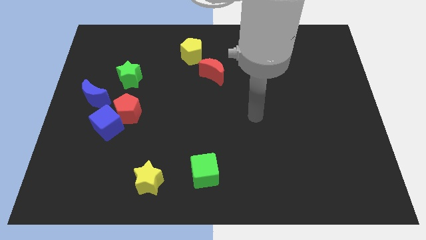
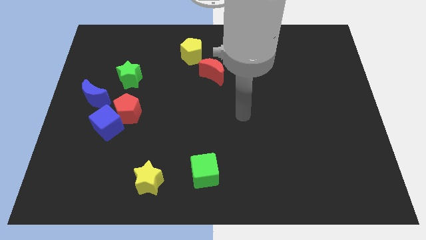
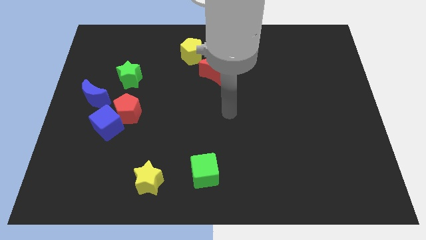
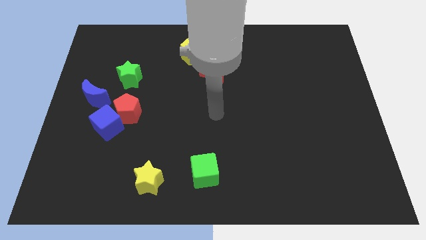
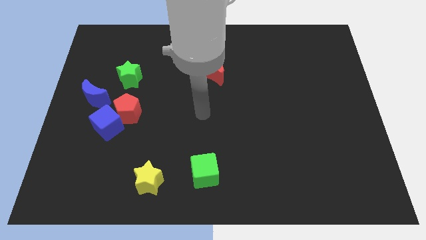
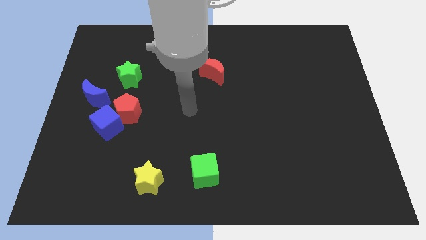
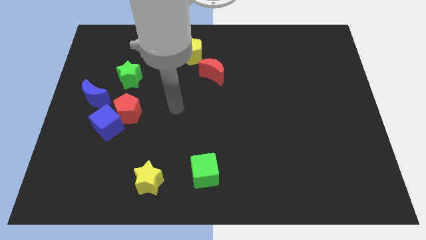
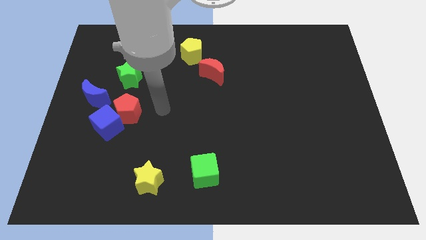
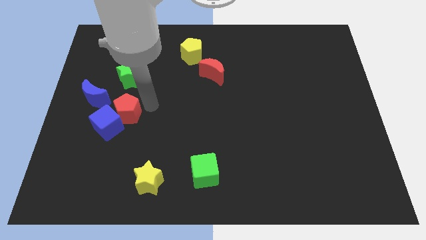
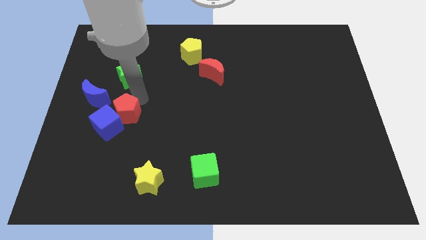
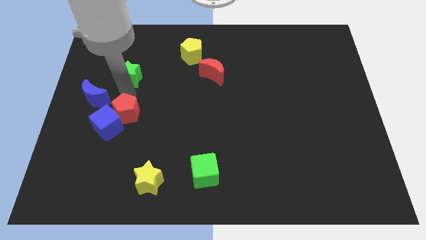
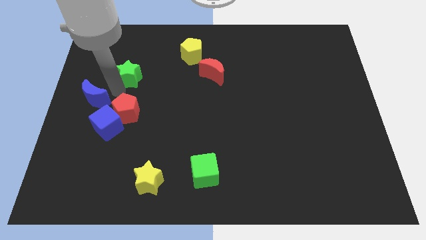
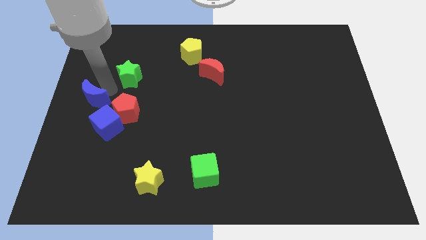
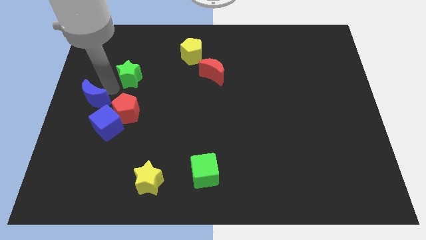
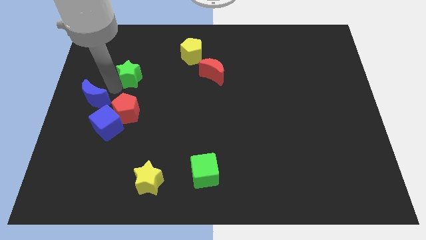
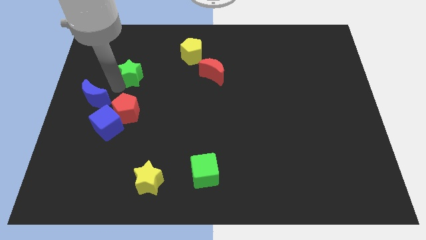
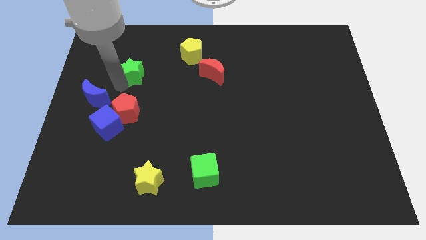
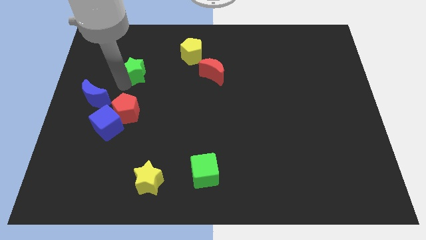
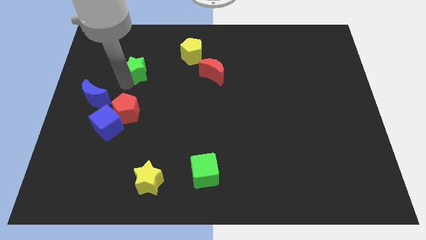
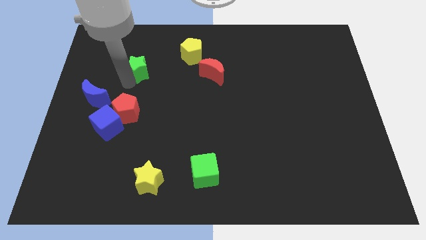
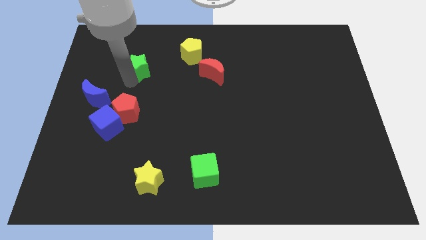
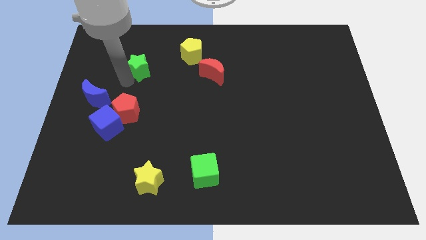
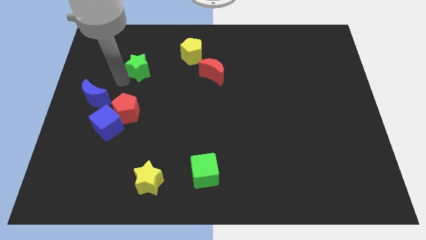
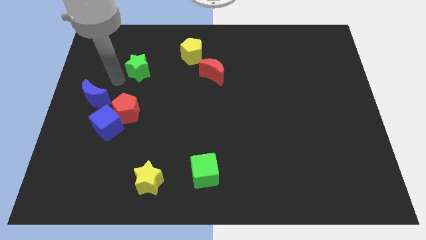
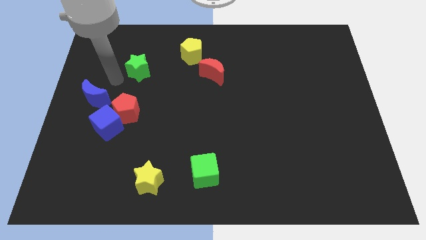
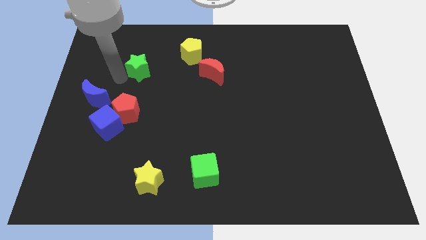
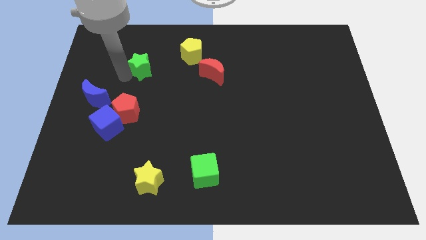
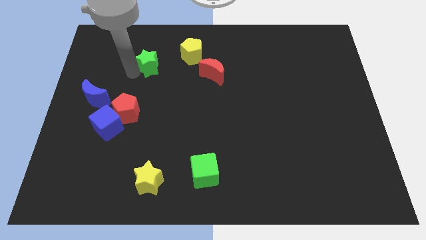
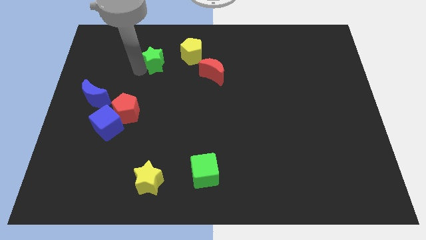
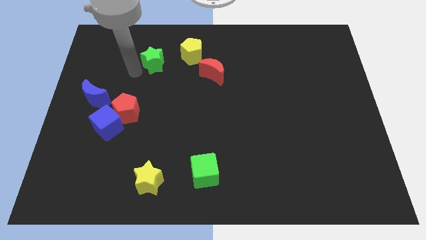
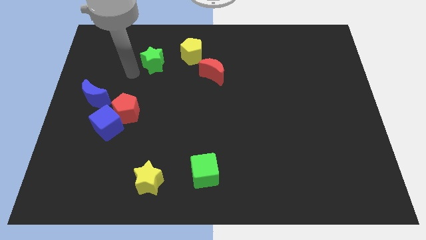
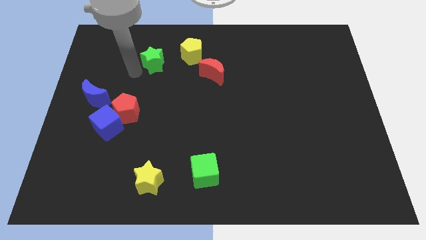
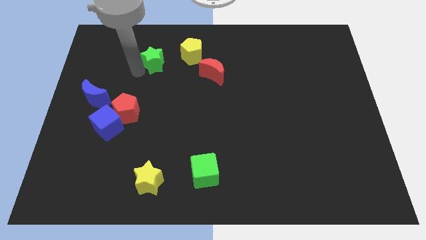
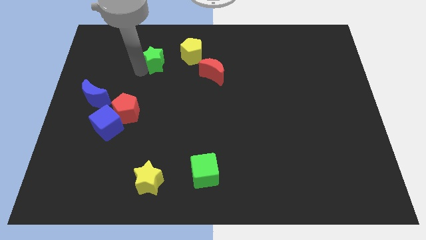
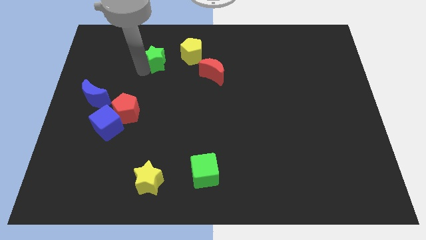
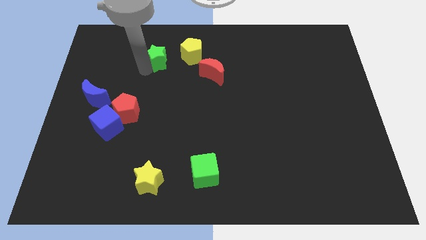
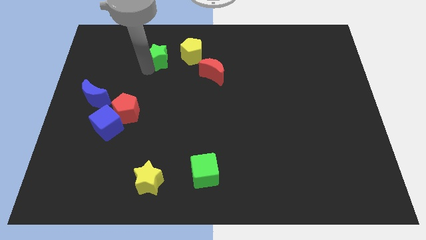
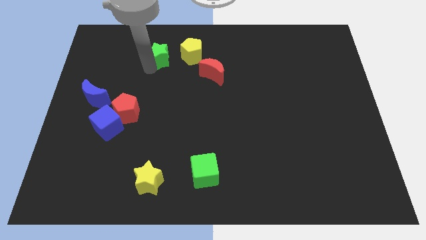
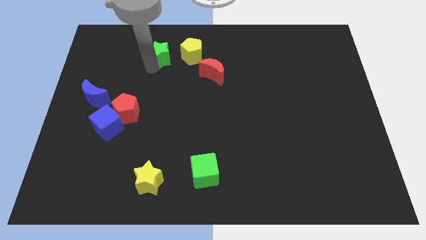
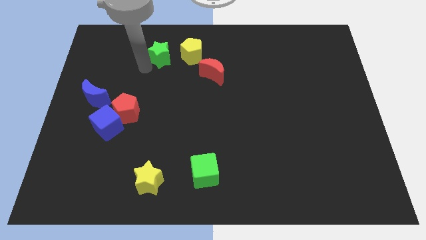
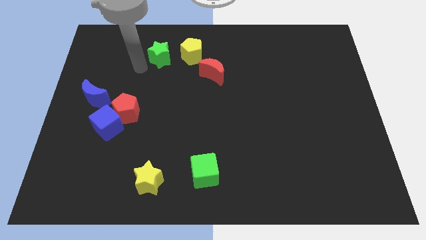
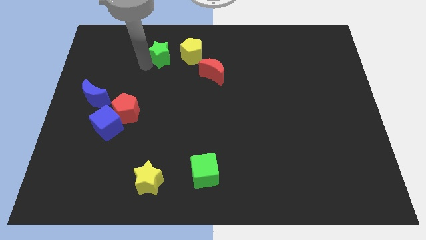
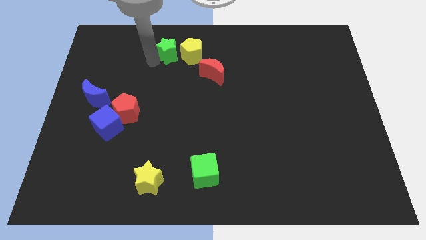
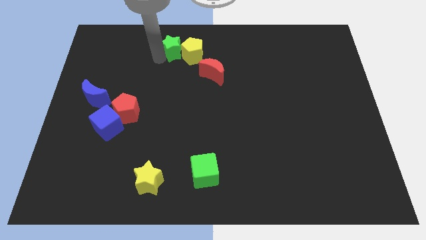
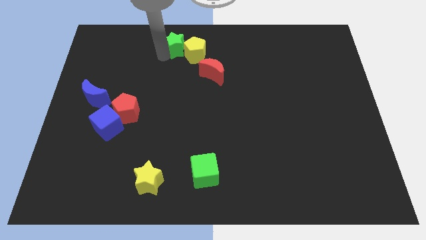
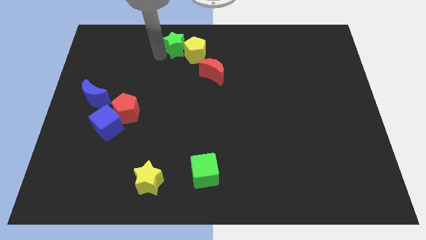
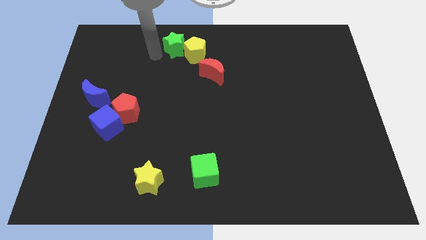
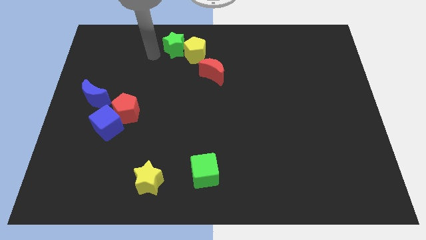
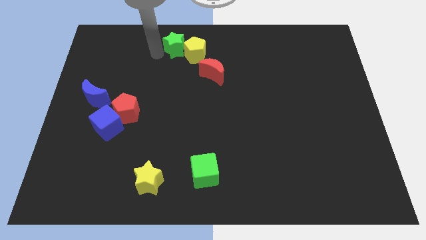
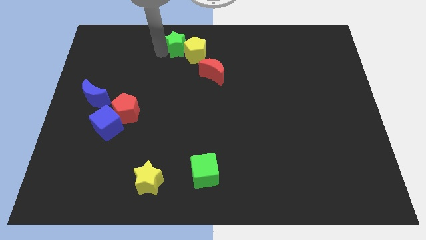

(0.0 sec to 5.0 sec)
push the green star to the towards your base
